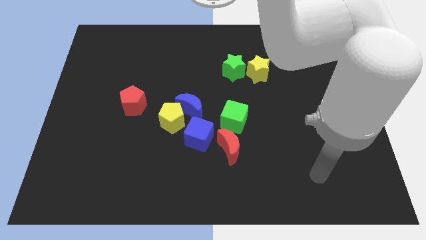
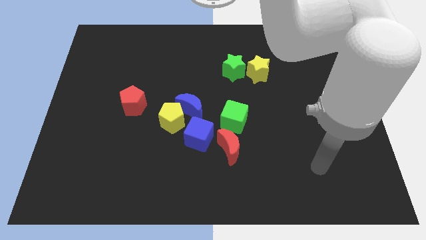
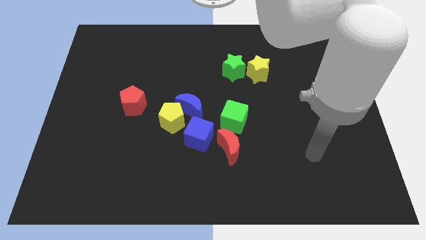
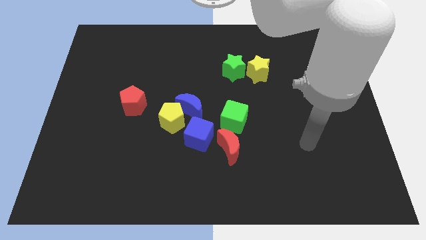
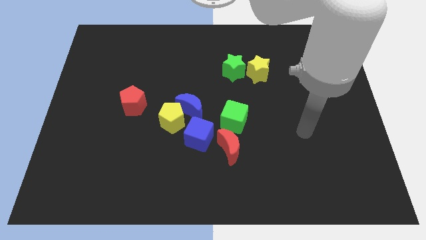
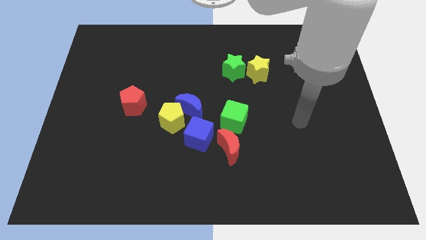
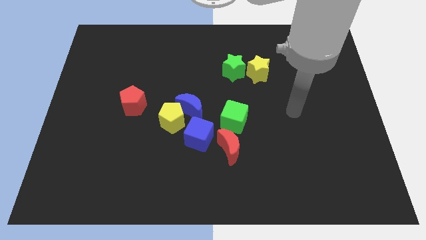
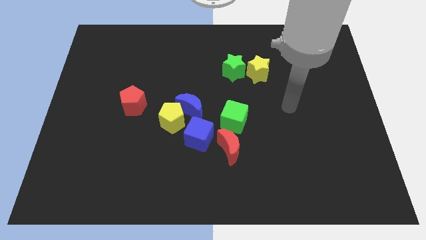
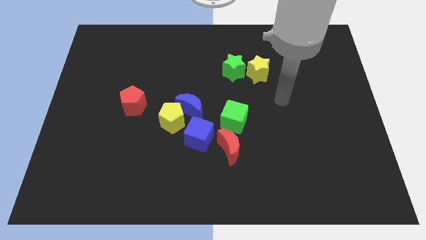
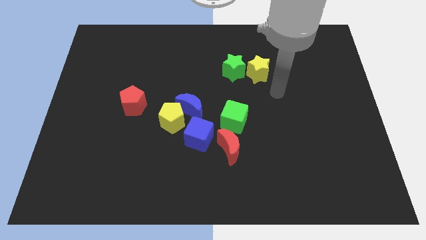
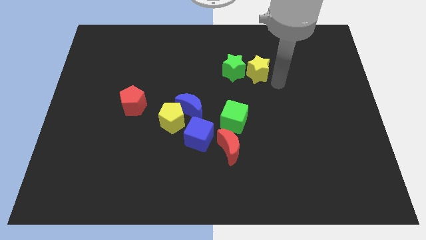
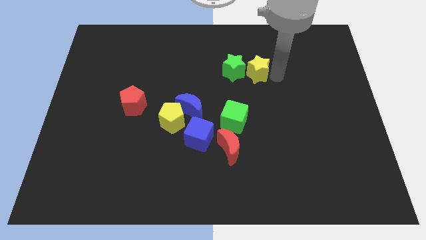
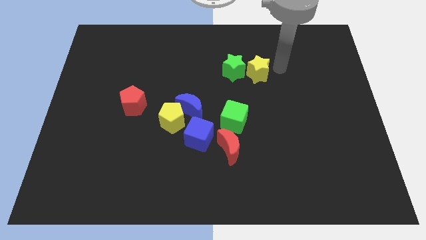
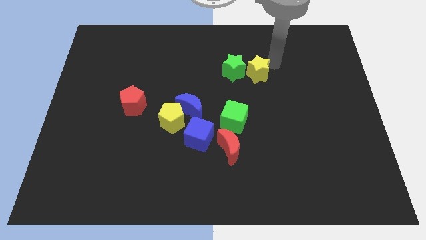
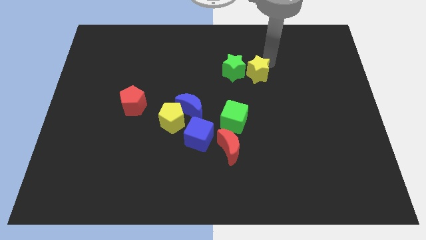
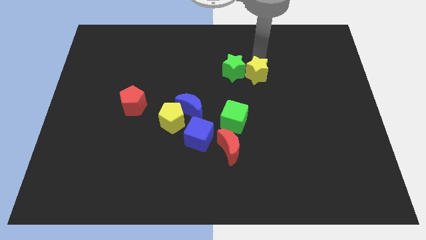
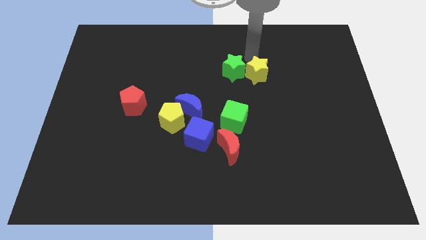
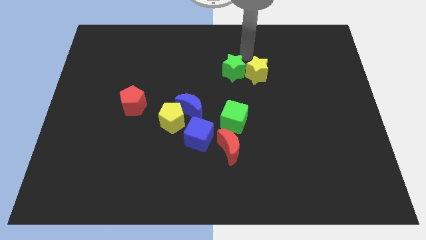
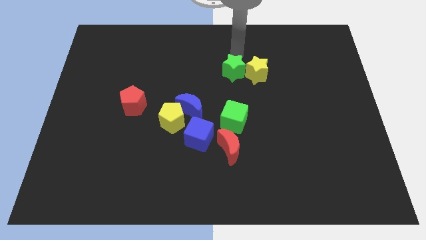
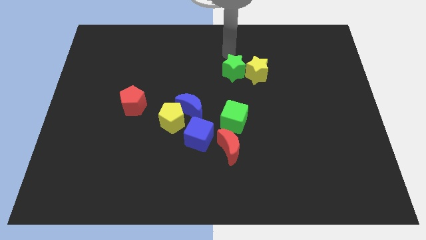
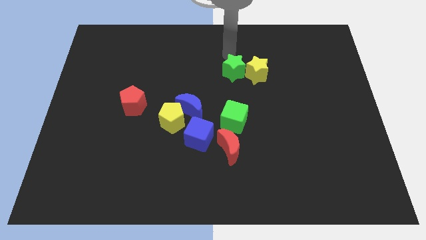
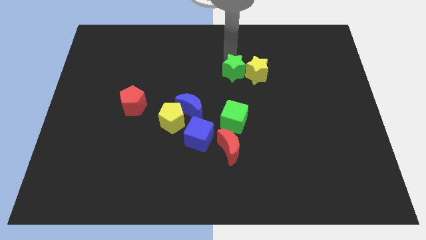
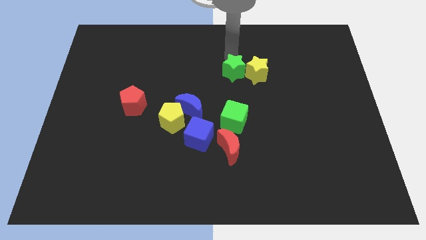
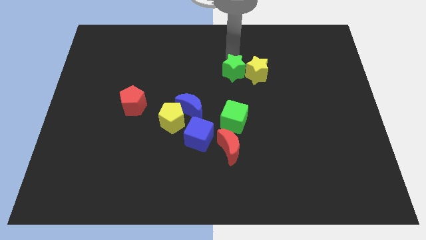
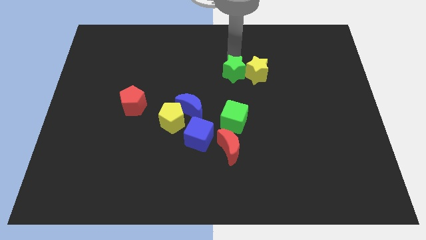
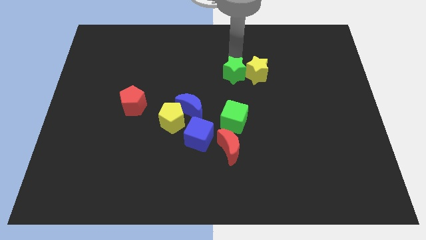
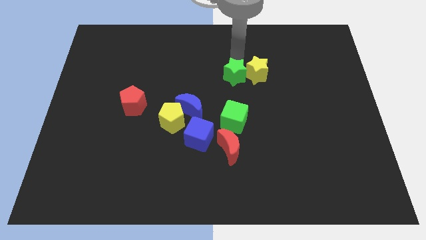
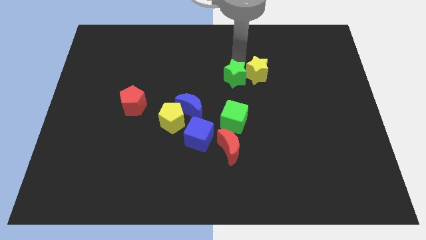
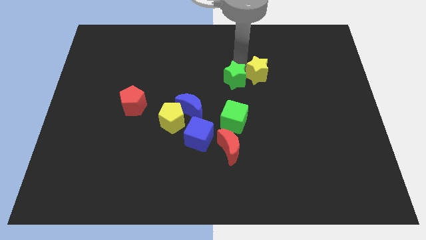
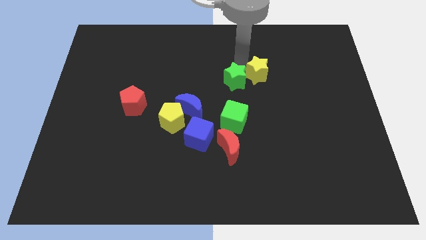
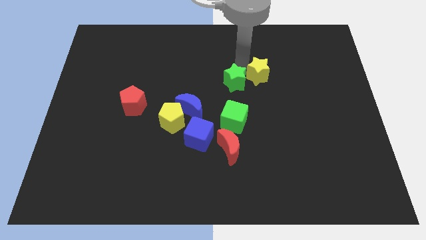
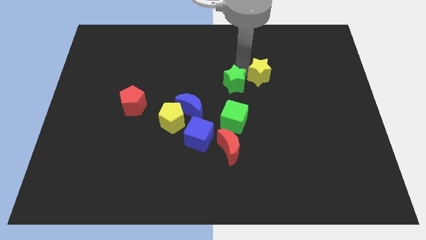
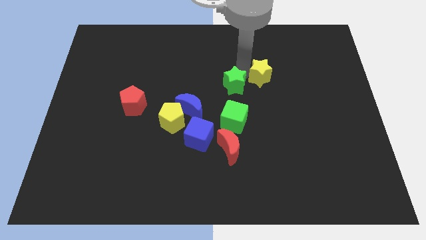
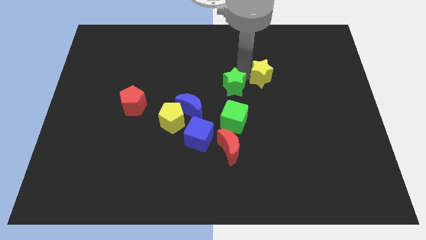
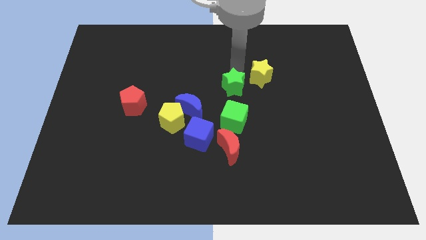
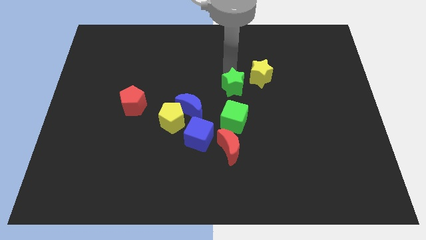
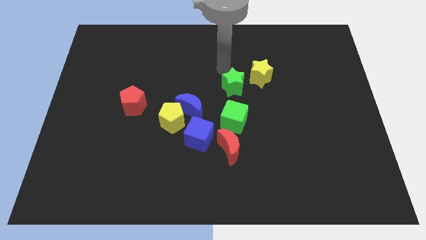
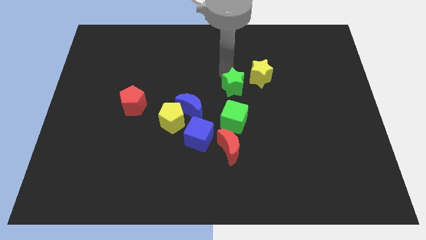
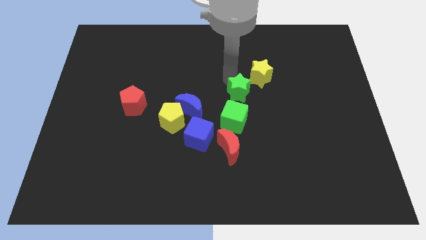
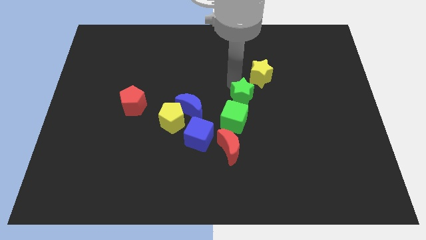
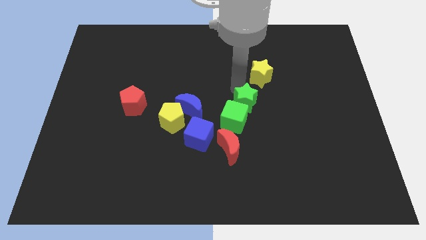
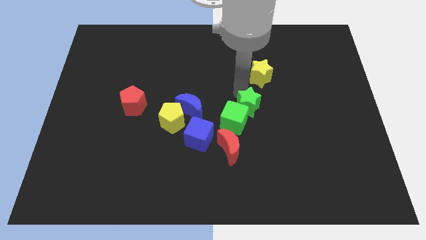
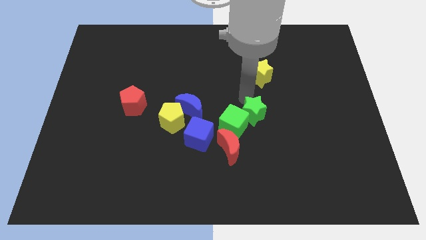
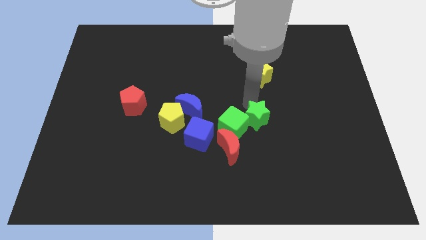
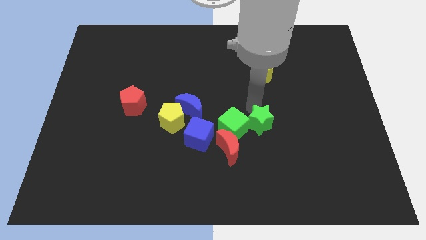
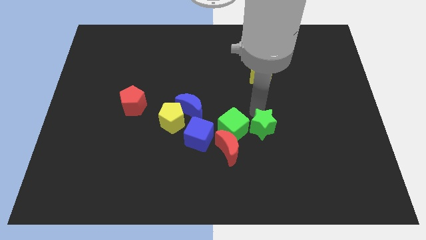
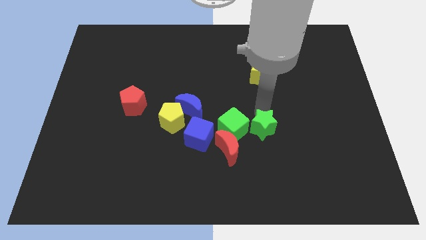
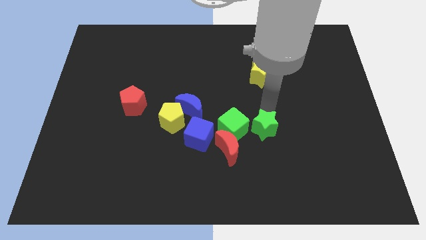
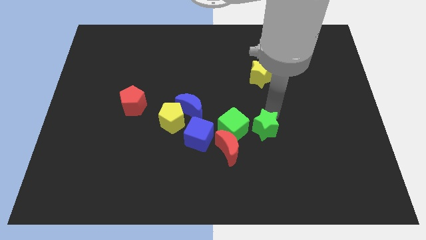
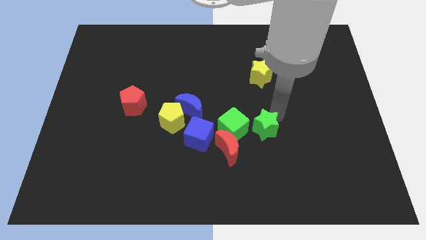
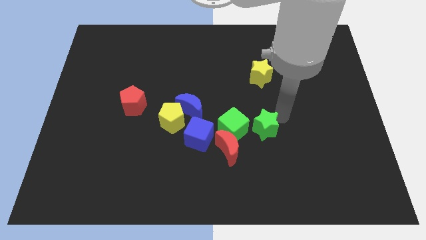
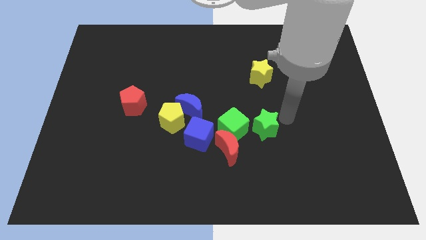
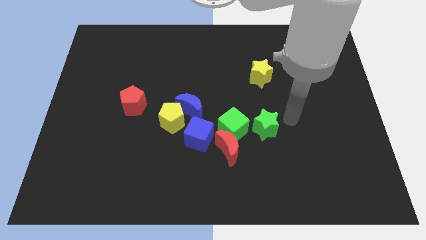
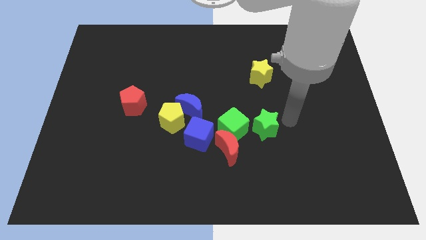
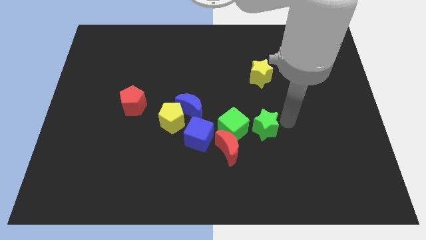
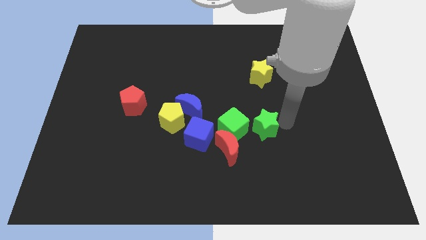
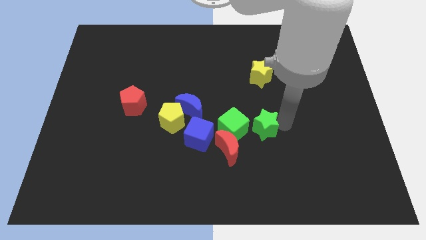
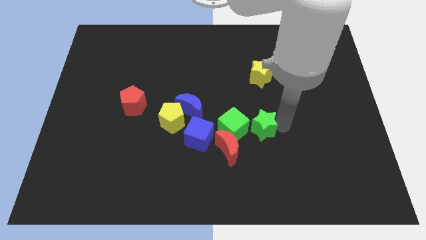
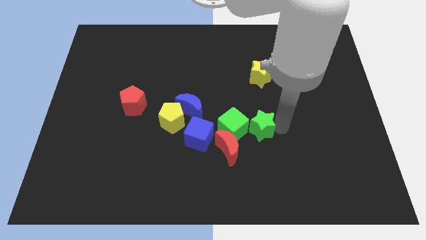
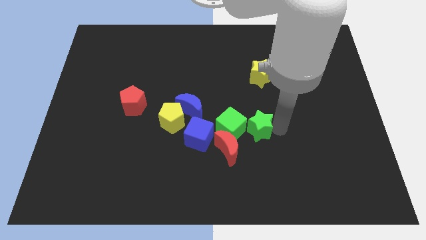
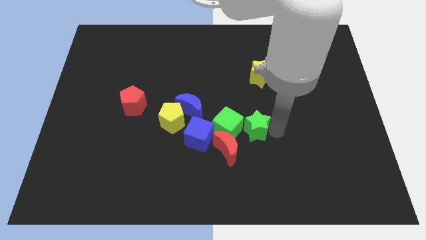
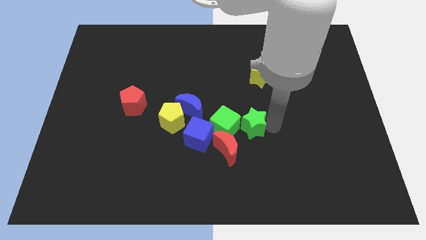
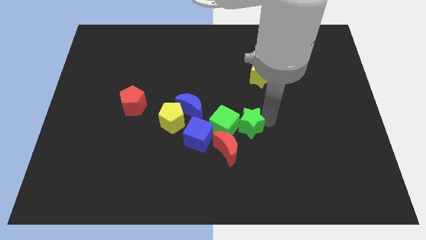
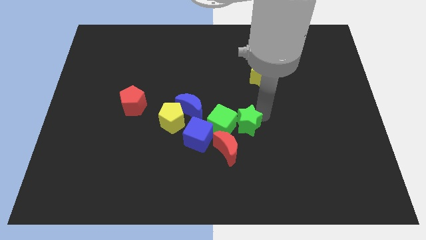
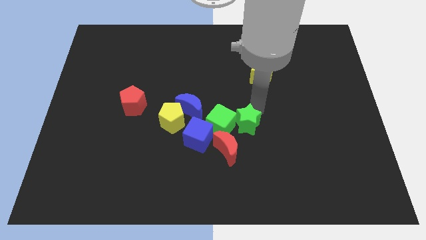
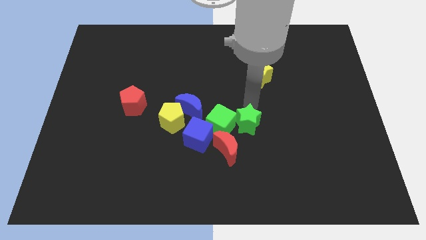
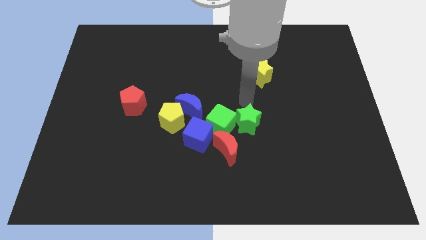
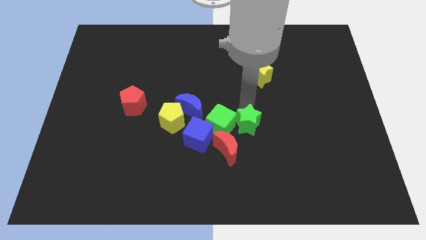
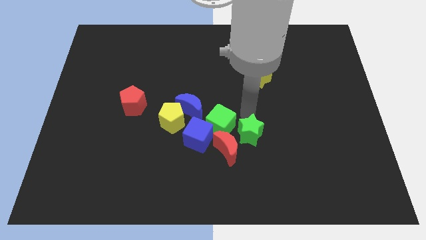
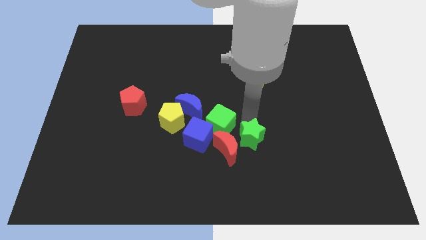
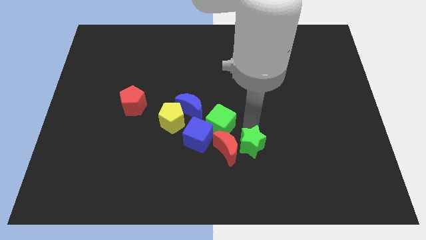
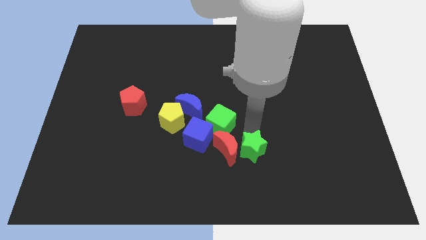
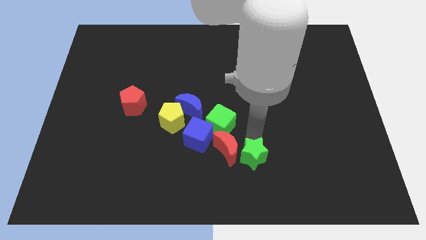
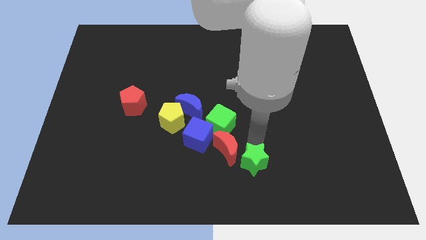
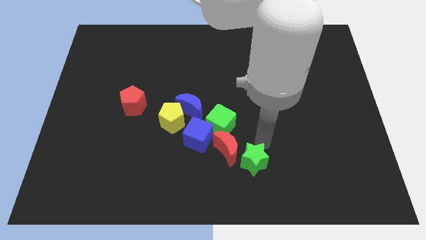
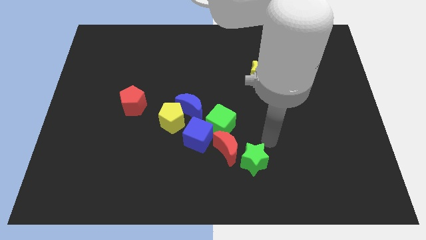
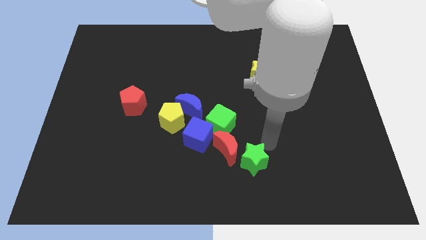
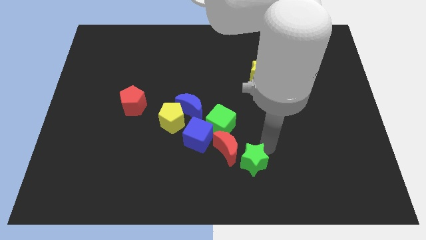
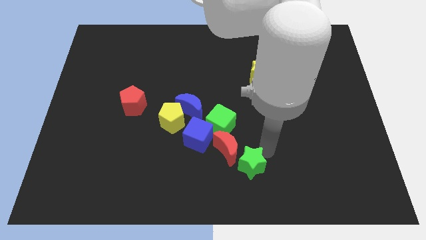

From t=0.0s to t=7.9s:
put the green star to the bottom
